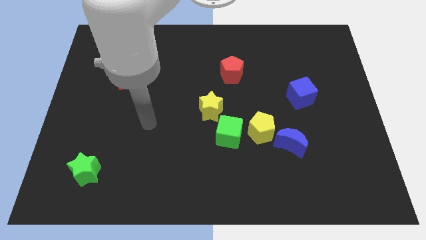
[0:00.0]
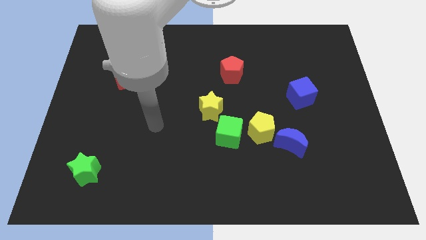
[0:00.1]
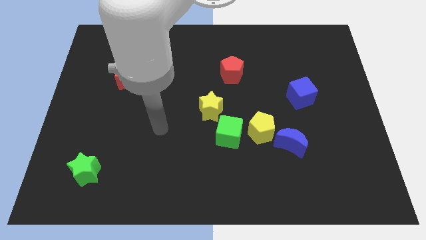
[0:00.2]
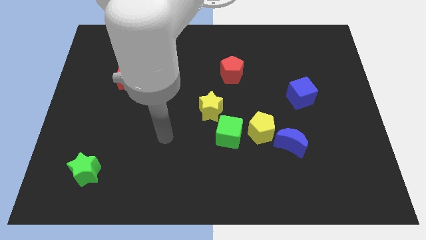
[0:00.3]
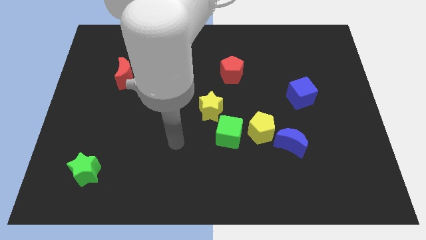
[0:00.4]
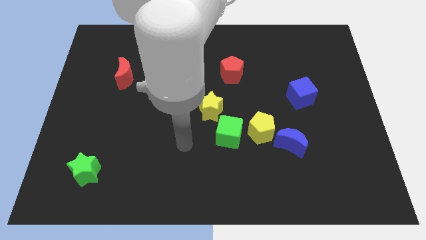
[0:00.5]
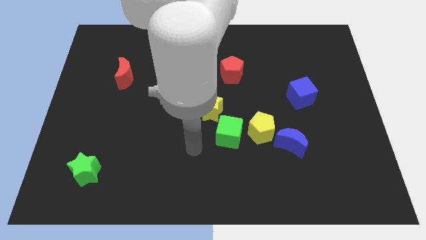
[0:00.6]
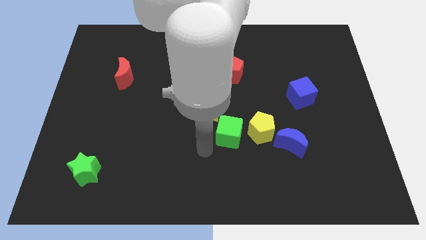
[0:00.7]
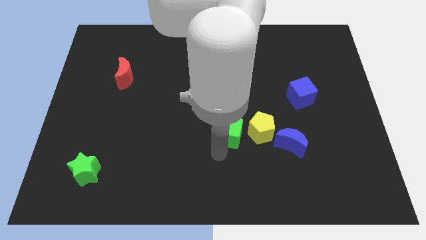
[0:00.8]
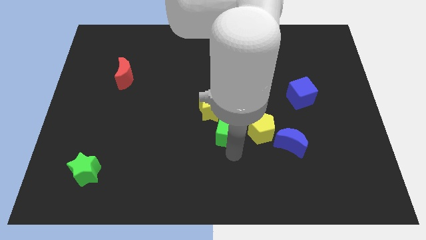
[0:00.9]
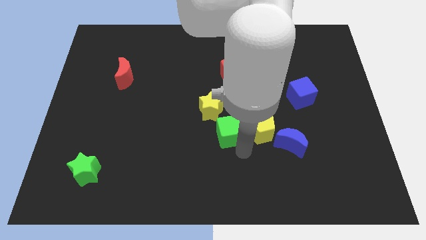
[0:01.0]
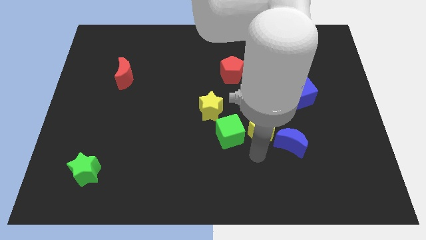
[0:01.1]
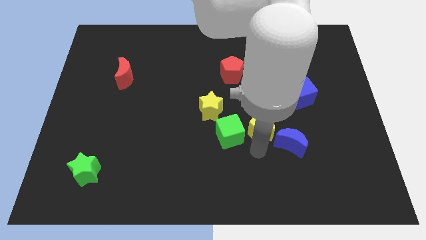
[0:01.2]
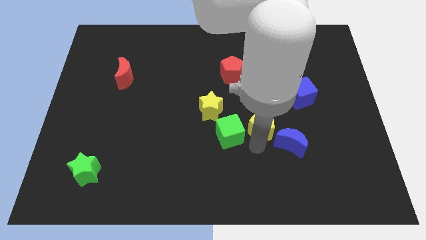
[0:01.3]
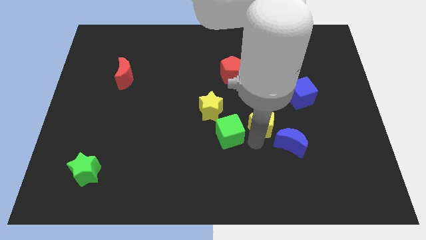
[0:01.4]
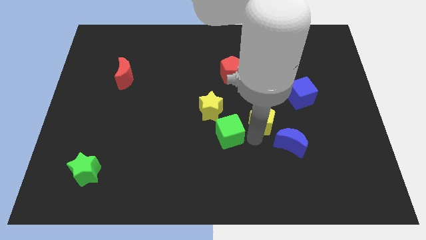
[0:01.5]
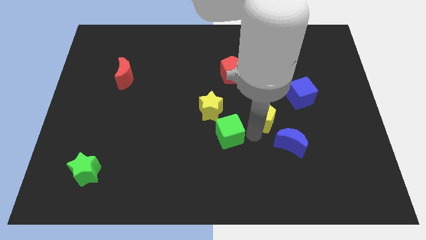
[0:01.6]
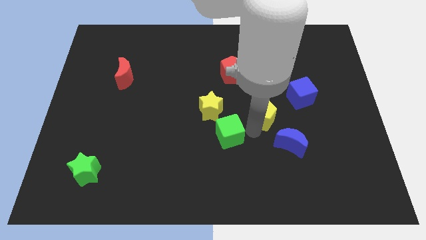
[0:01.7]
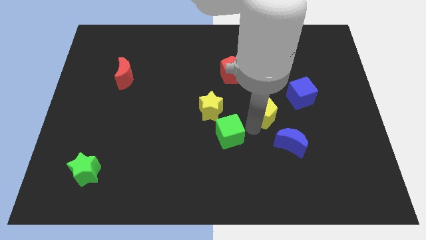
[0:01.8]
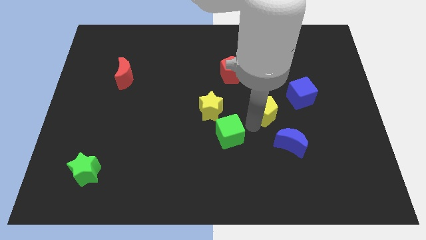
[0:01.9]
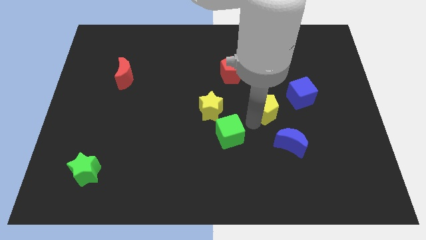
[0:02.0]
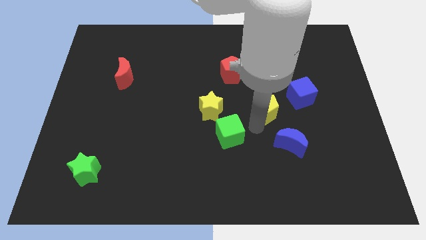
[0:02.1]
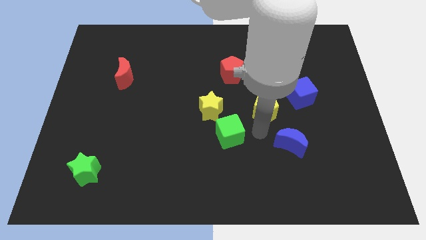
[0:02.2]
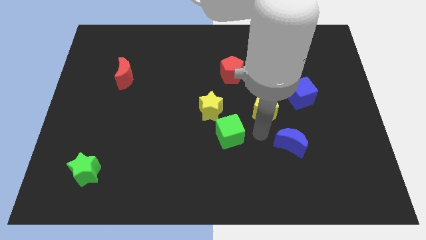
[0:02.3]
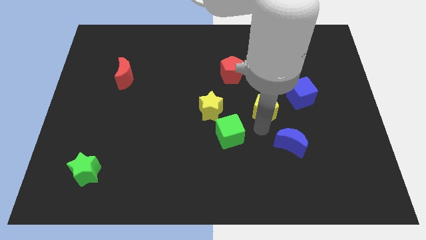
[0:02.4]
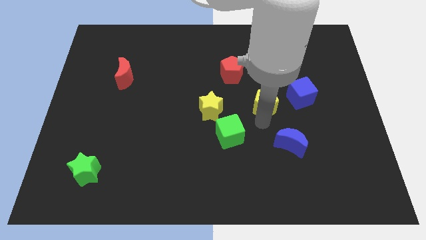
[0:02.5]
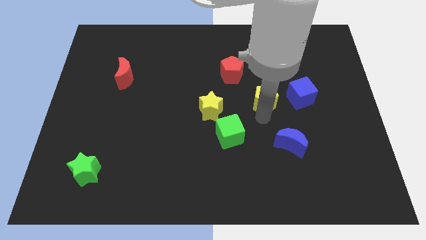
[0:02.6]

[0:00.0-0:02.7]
pull the yellow pentagon apart from the green cube and blue moon

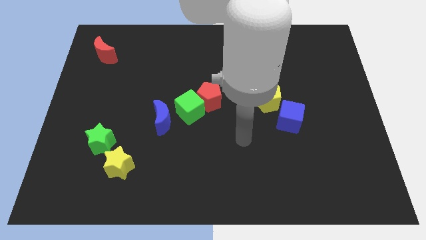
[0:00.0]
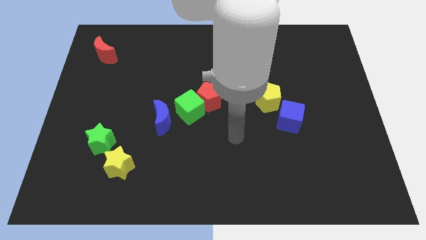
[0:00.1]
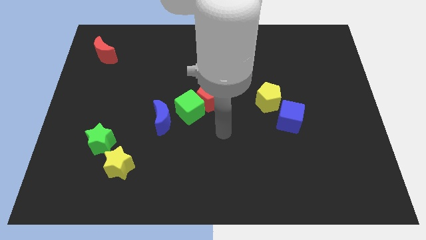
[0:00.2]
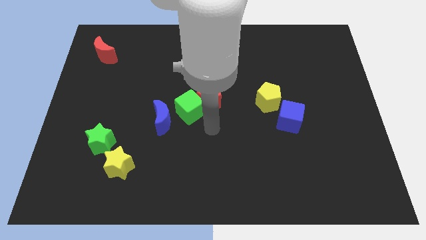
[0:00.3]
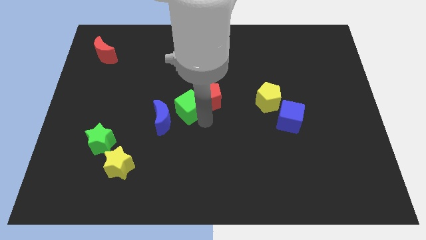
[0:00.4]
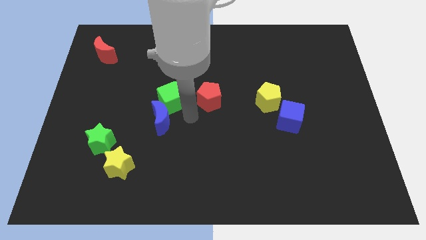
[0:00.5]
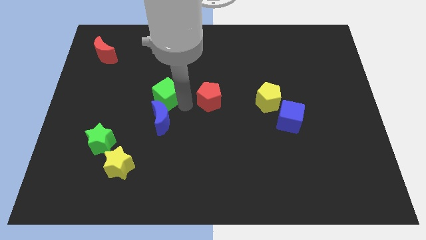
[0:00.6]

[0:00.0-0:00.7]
separate the red pentagon from the green cube

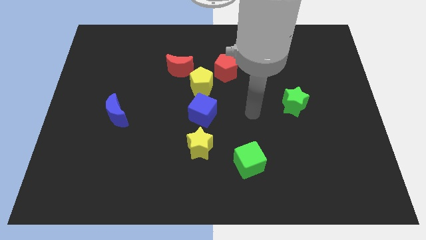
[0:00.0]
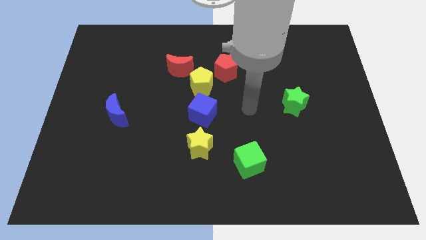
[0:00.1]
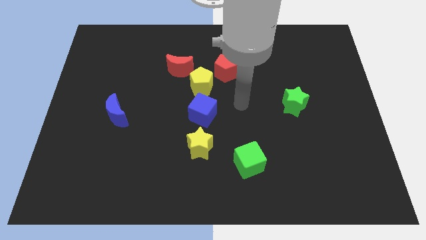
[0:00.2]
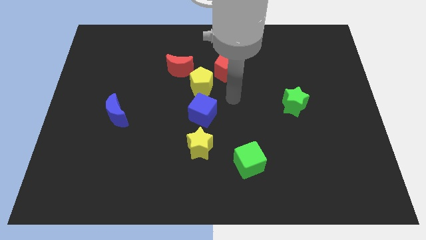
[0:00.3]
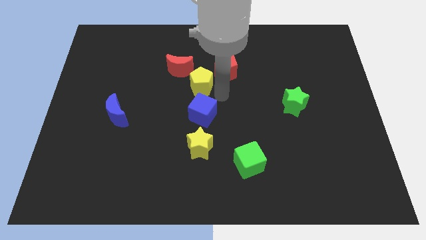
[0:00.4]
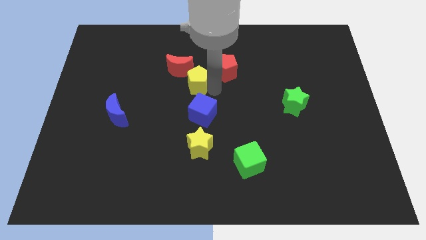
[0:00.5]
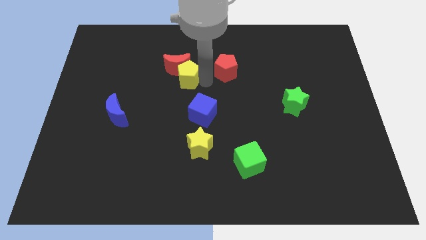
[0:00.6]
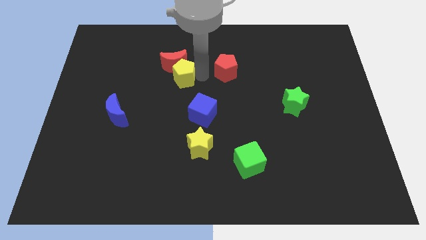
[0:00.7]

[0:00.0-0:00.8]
separate the red pentagon from the yellow pentagon

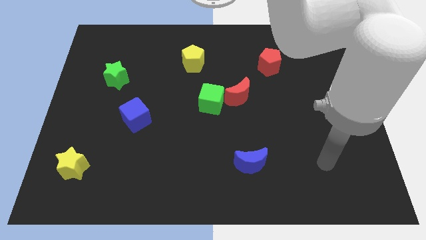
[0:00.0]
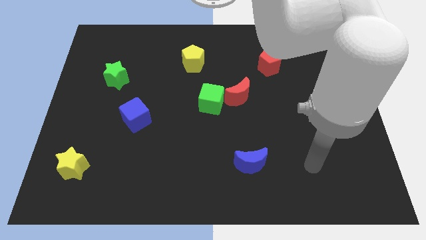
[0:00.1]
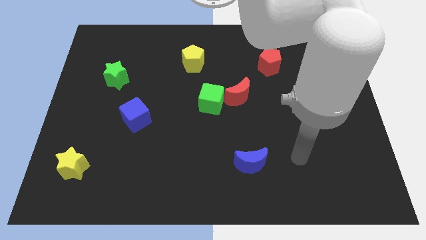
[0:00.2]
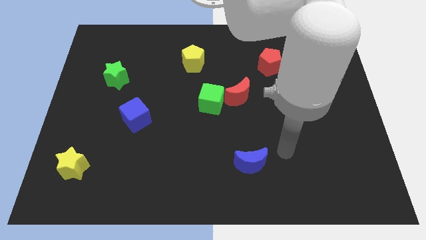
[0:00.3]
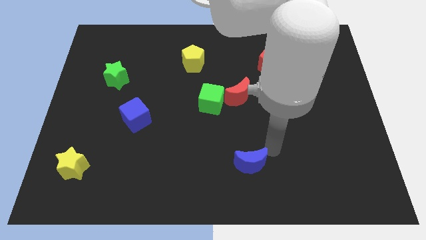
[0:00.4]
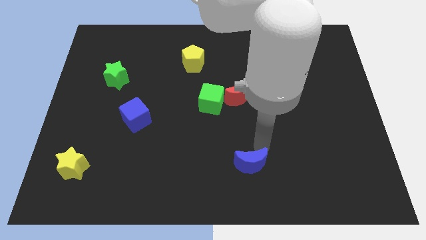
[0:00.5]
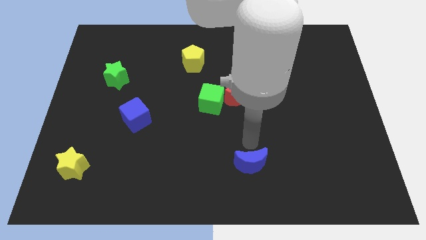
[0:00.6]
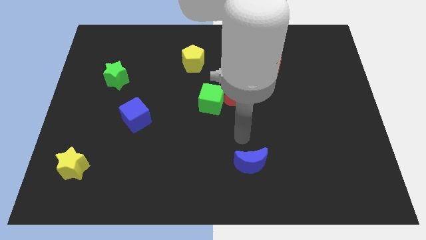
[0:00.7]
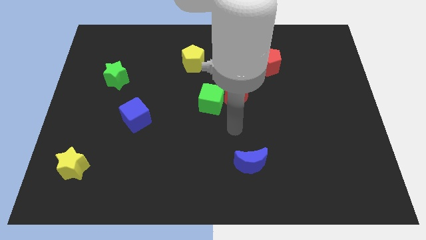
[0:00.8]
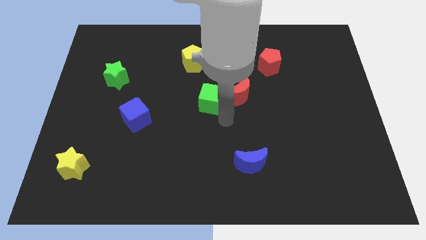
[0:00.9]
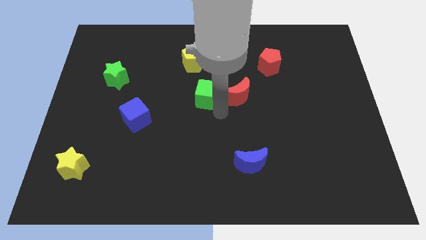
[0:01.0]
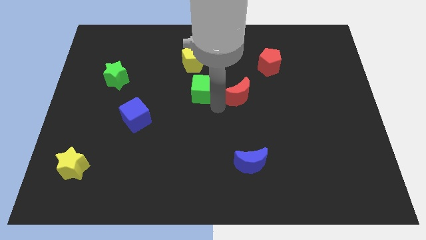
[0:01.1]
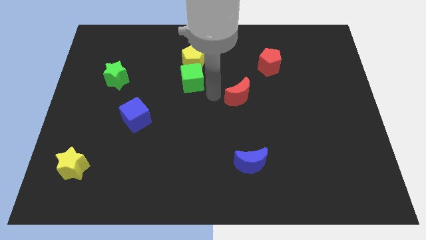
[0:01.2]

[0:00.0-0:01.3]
separate the red moon from the green cube

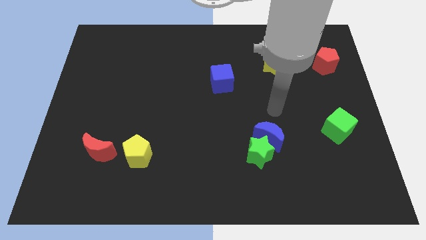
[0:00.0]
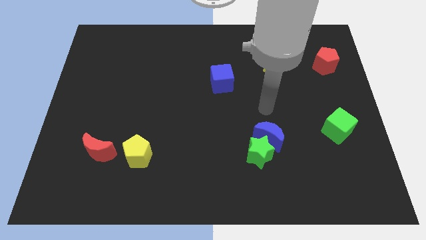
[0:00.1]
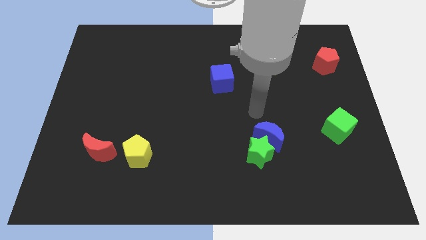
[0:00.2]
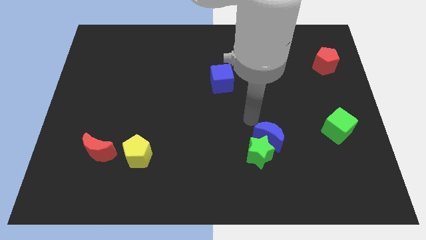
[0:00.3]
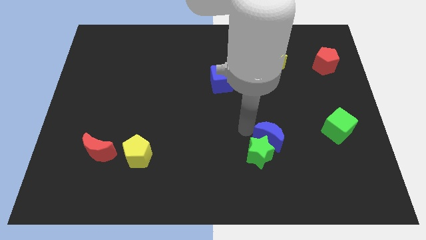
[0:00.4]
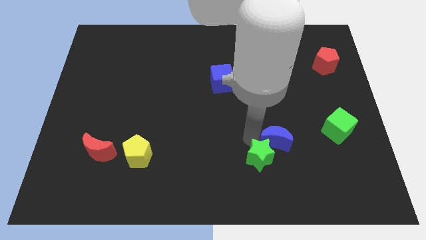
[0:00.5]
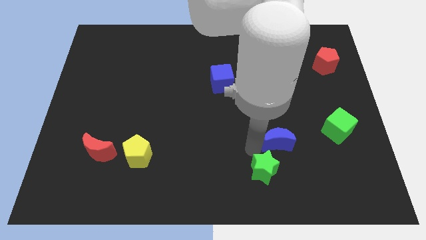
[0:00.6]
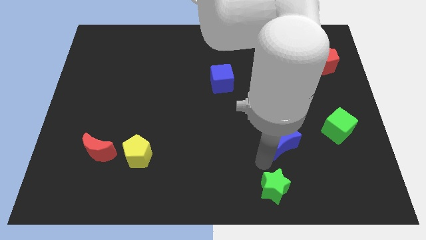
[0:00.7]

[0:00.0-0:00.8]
pull the blue moon apart from the green star

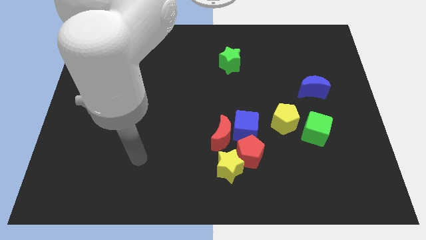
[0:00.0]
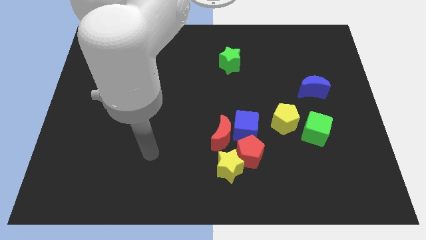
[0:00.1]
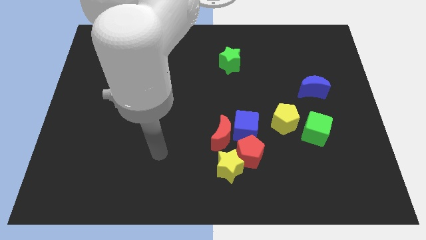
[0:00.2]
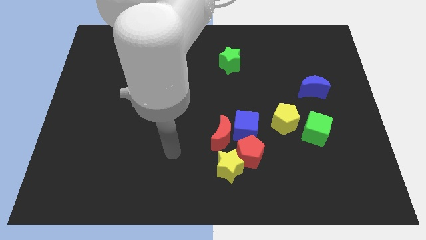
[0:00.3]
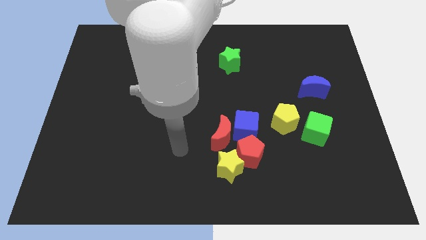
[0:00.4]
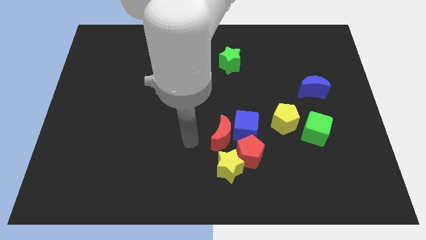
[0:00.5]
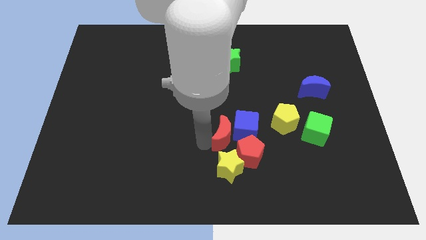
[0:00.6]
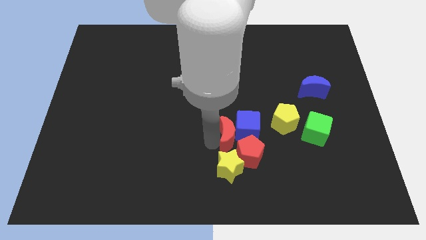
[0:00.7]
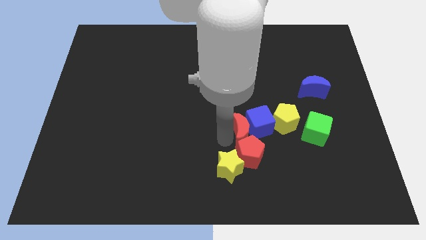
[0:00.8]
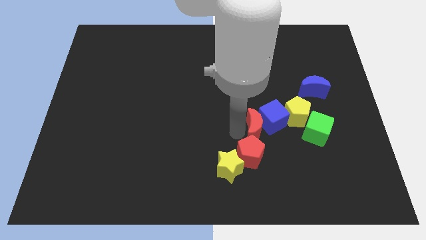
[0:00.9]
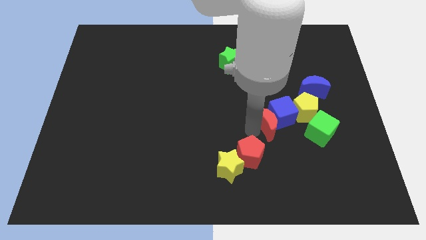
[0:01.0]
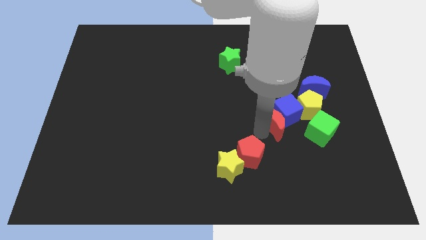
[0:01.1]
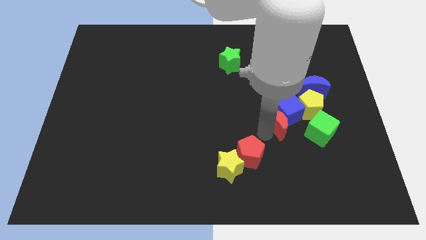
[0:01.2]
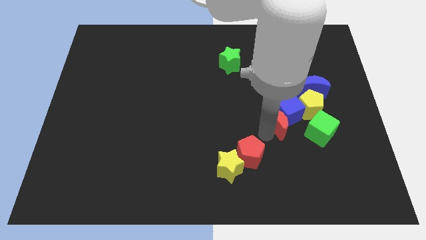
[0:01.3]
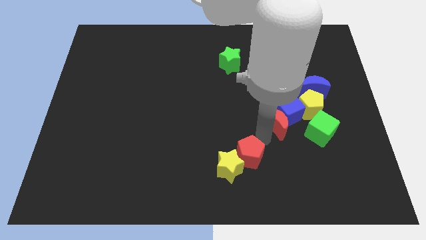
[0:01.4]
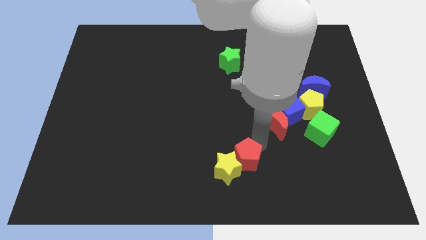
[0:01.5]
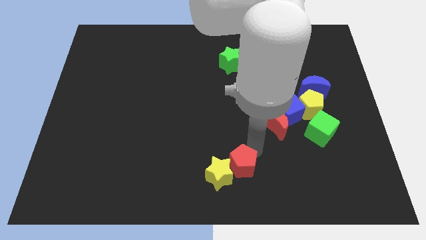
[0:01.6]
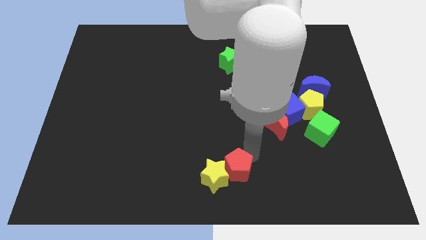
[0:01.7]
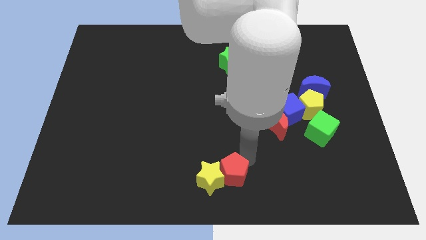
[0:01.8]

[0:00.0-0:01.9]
move the red pentagon away from the group of blocks

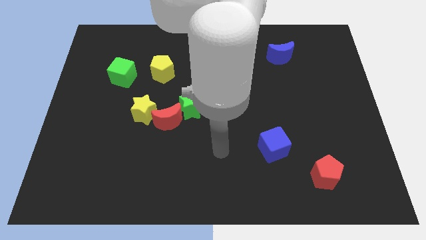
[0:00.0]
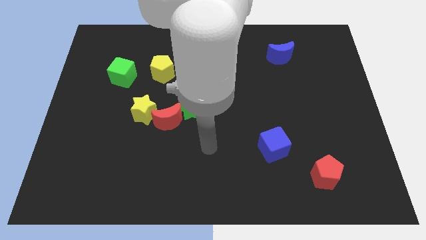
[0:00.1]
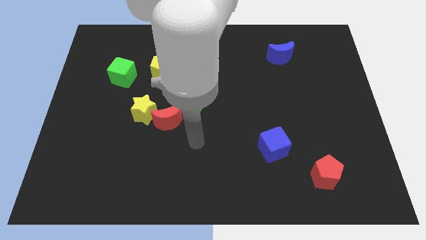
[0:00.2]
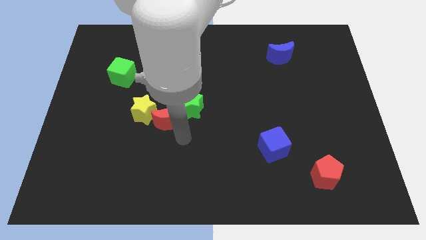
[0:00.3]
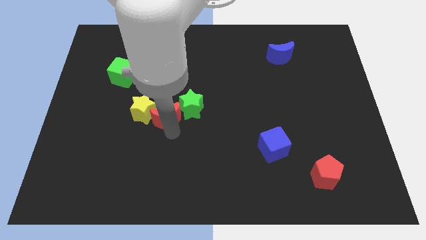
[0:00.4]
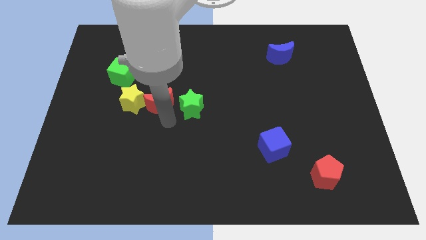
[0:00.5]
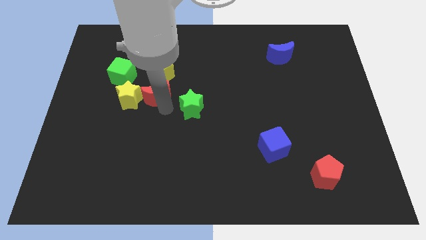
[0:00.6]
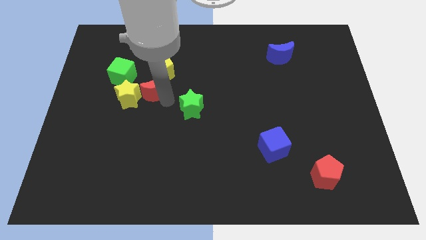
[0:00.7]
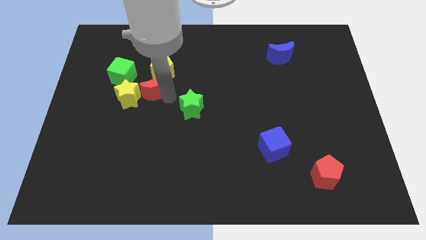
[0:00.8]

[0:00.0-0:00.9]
pull the green star apart from the red moon

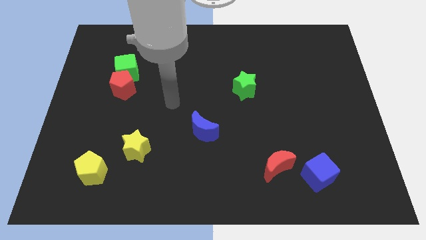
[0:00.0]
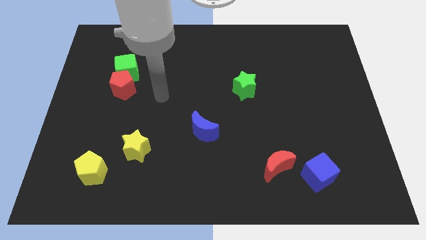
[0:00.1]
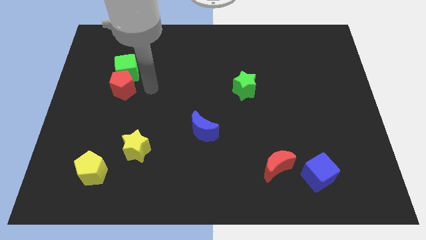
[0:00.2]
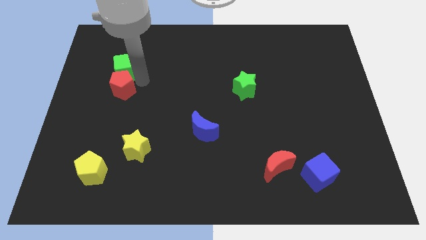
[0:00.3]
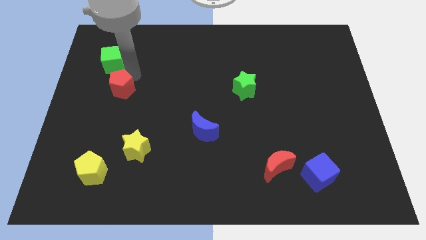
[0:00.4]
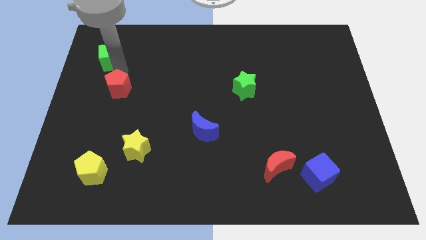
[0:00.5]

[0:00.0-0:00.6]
pull the red pentagon apart from the green cube
